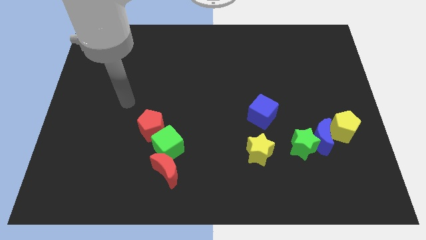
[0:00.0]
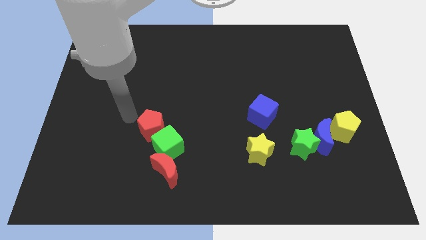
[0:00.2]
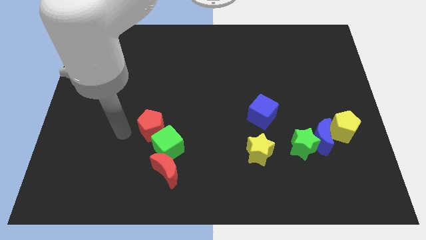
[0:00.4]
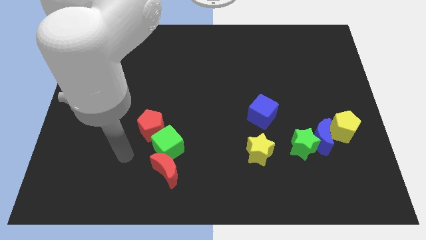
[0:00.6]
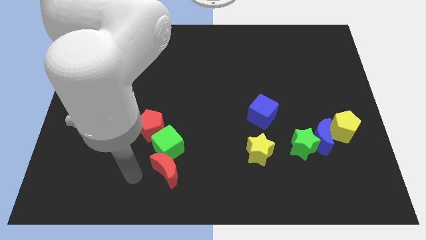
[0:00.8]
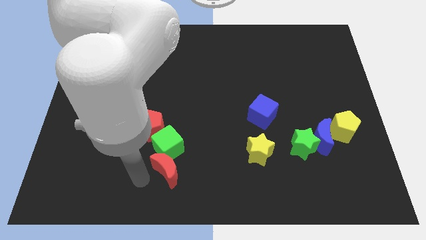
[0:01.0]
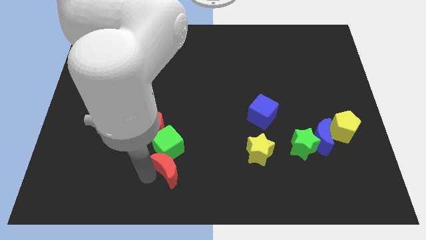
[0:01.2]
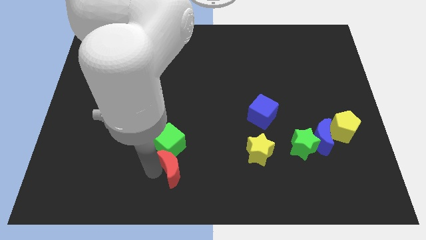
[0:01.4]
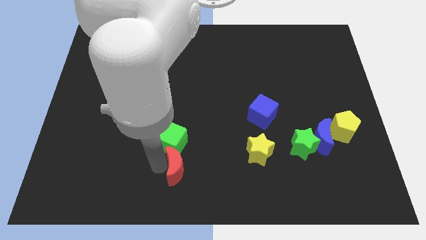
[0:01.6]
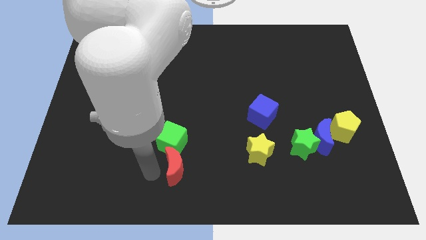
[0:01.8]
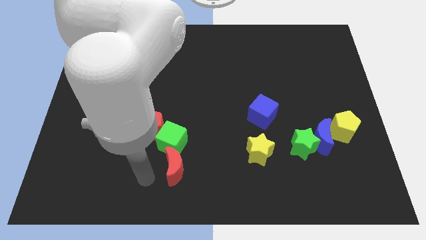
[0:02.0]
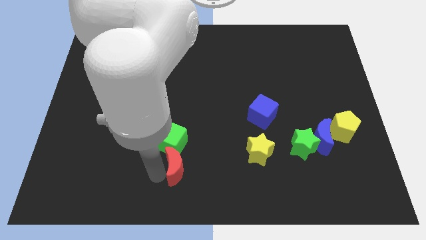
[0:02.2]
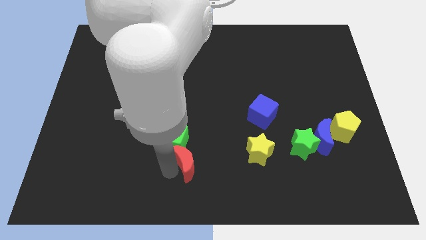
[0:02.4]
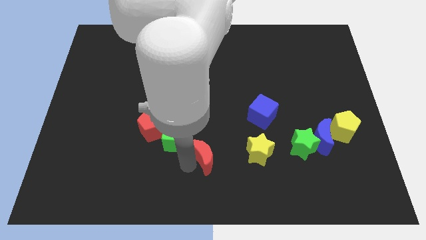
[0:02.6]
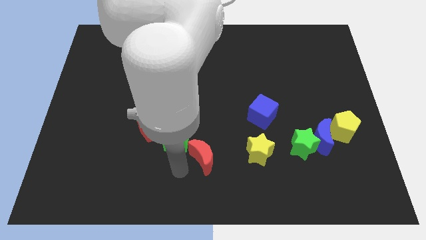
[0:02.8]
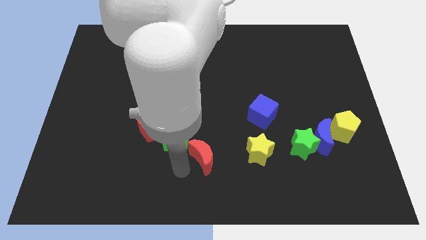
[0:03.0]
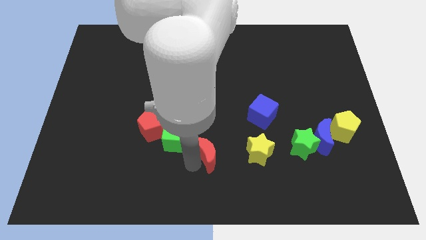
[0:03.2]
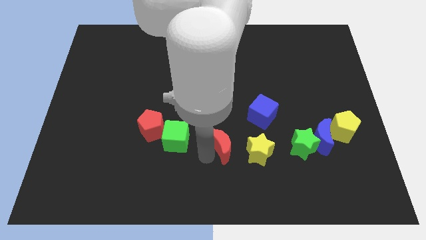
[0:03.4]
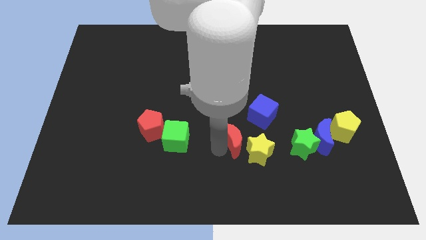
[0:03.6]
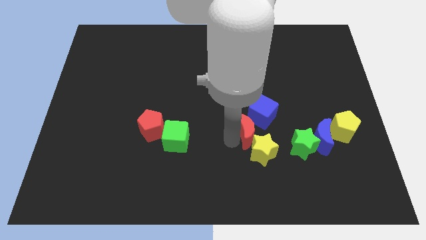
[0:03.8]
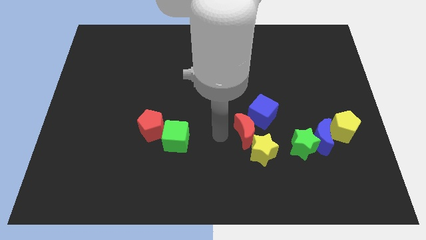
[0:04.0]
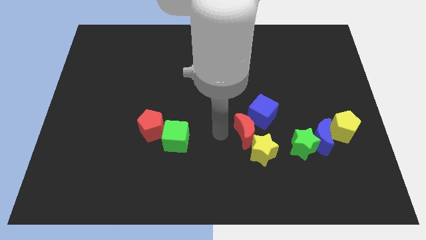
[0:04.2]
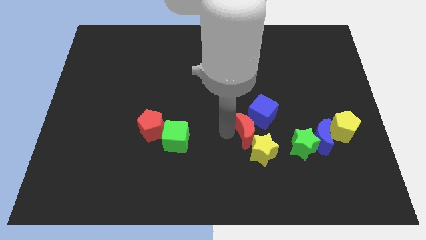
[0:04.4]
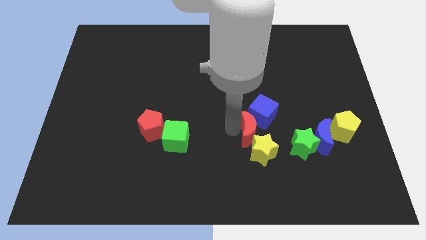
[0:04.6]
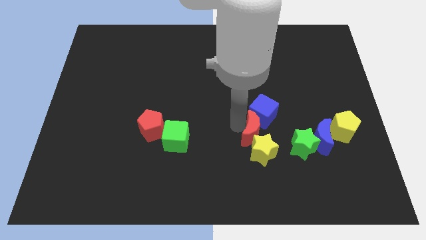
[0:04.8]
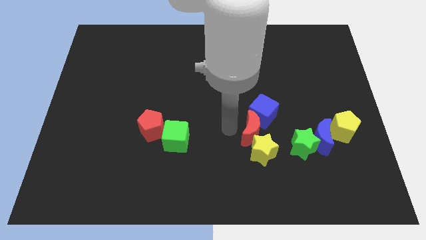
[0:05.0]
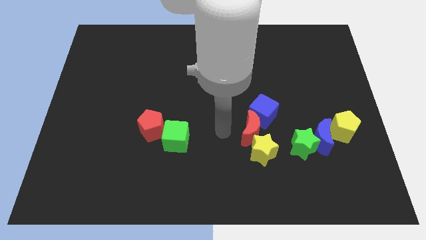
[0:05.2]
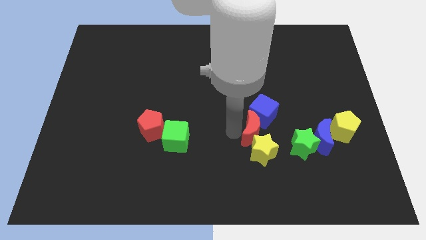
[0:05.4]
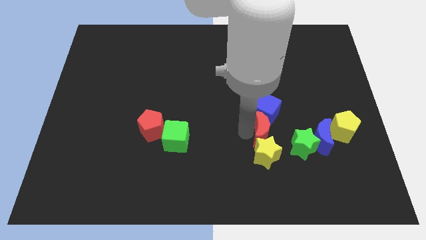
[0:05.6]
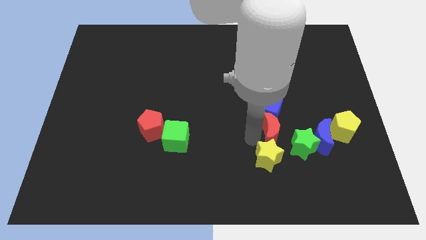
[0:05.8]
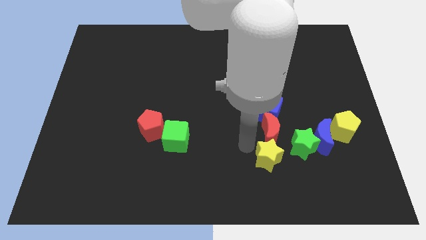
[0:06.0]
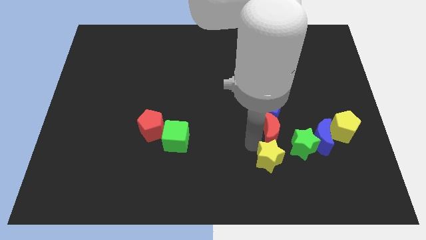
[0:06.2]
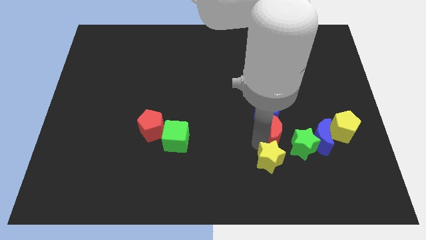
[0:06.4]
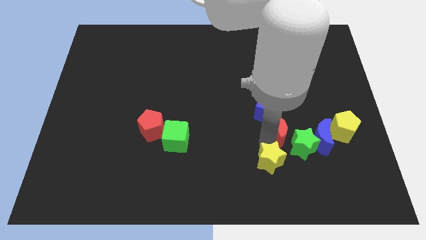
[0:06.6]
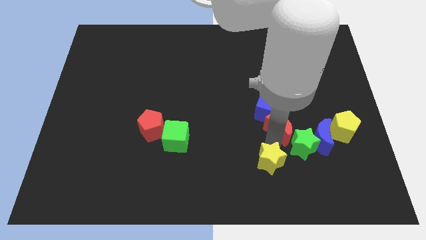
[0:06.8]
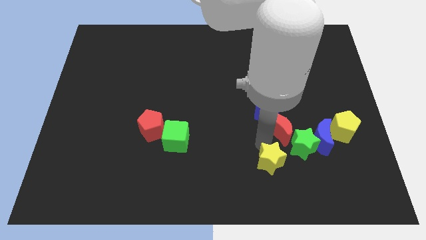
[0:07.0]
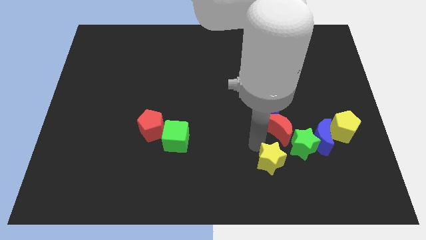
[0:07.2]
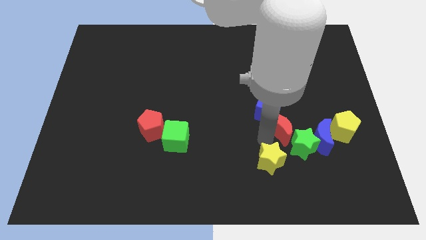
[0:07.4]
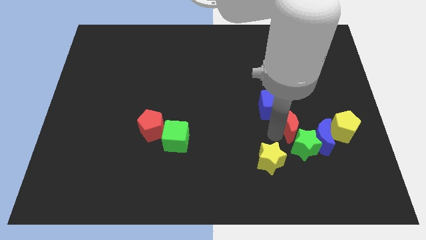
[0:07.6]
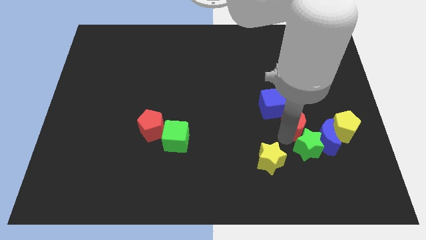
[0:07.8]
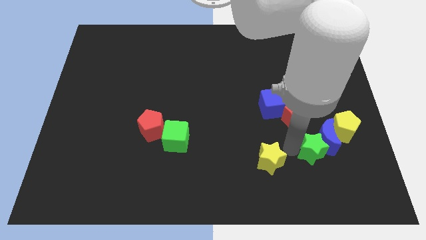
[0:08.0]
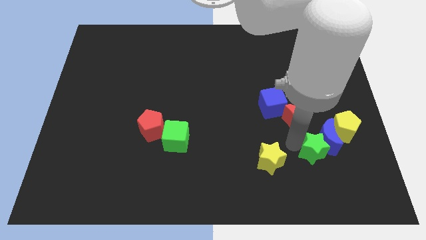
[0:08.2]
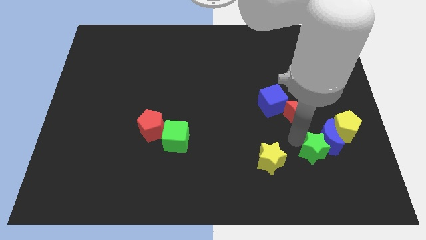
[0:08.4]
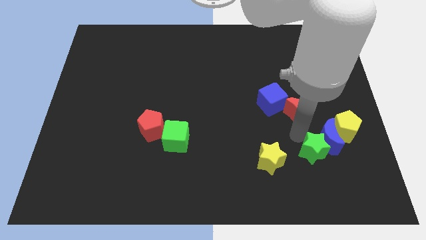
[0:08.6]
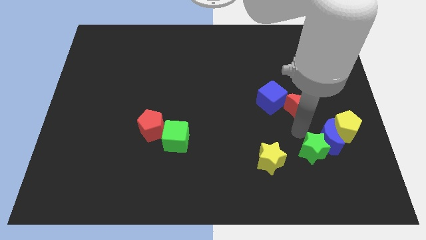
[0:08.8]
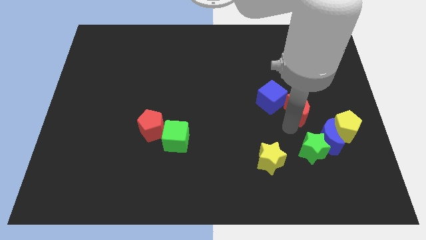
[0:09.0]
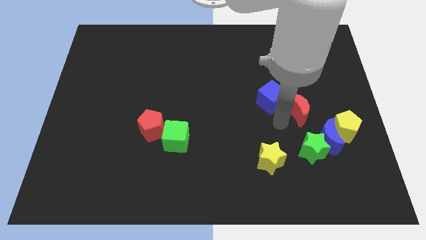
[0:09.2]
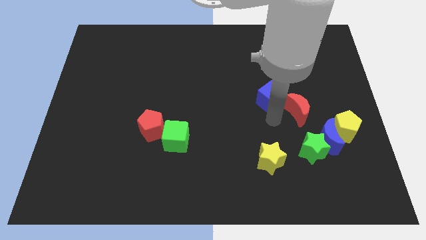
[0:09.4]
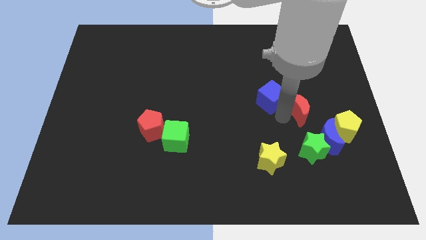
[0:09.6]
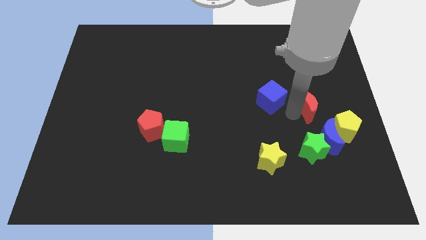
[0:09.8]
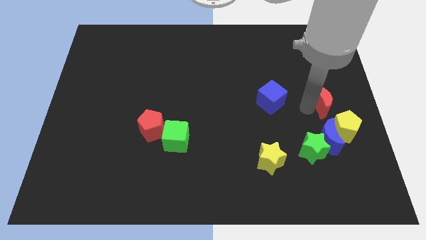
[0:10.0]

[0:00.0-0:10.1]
push the red moon to the right side
